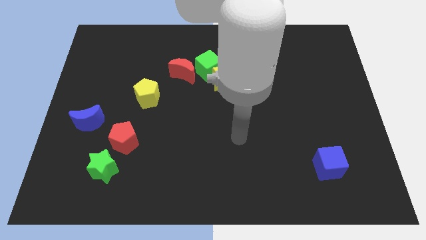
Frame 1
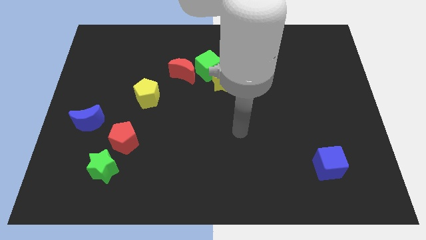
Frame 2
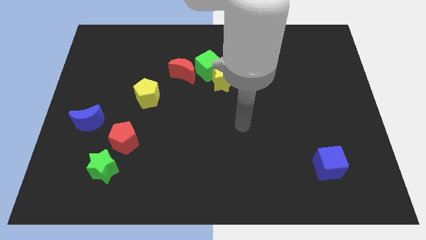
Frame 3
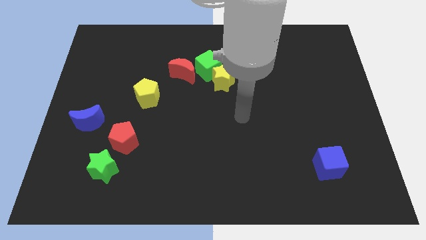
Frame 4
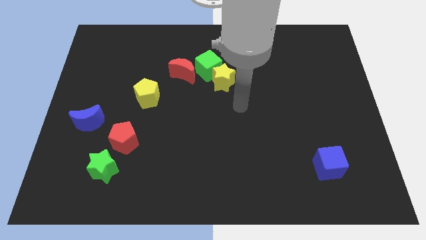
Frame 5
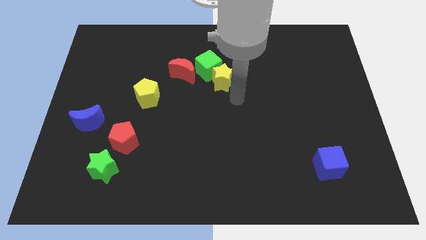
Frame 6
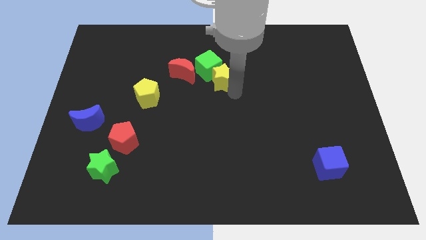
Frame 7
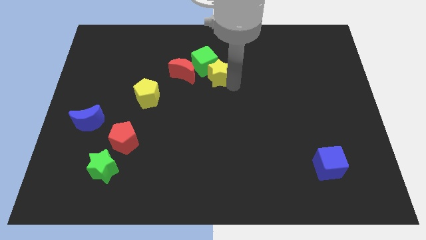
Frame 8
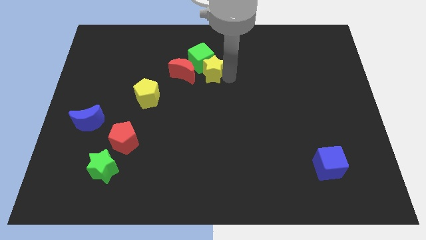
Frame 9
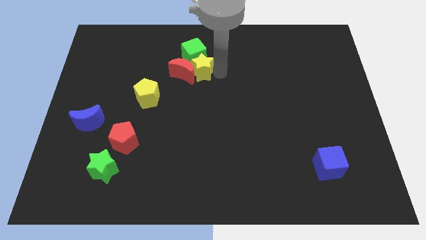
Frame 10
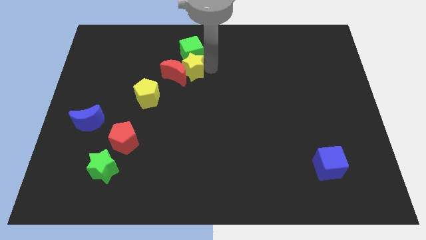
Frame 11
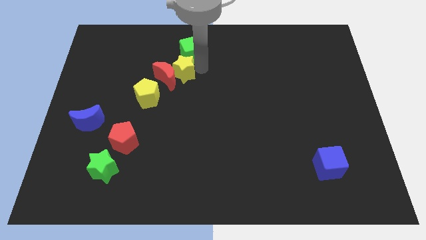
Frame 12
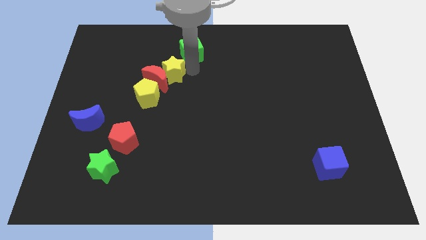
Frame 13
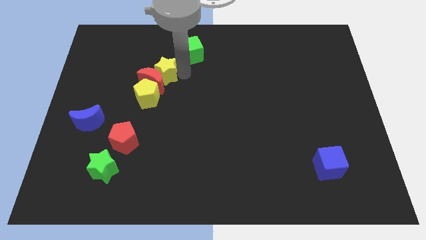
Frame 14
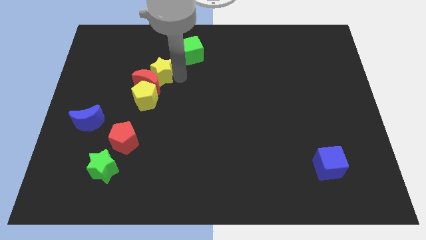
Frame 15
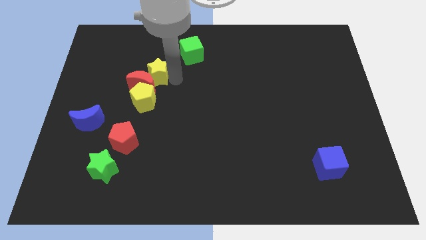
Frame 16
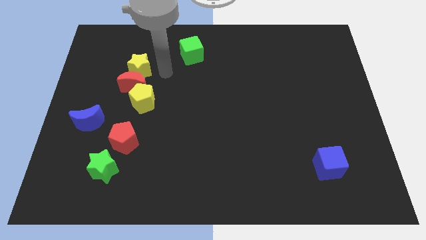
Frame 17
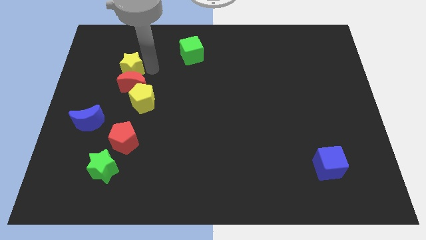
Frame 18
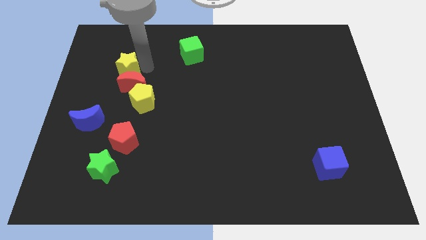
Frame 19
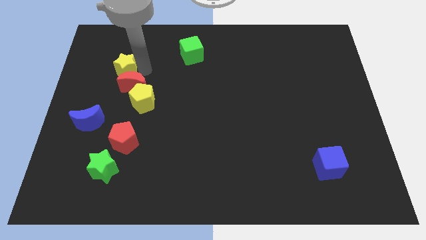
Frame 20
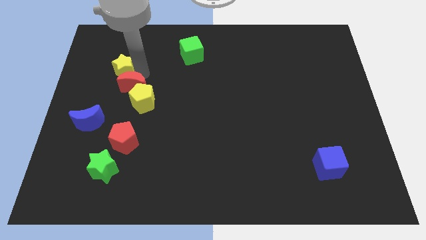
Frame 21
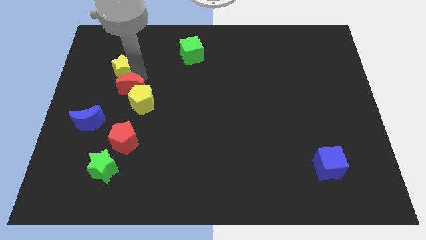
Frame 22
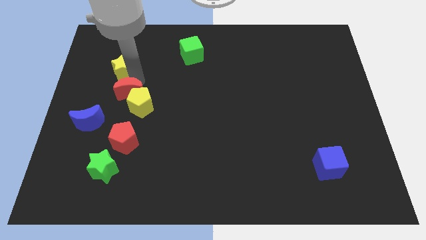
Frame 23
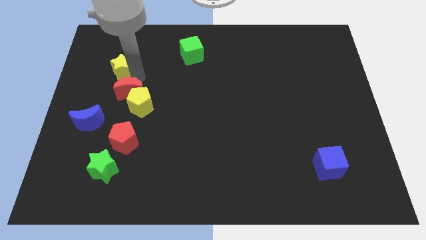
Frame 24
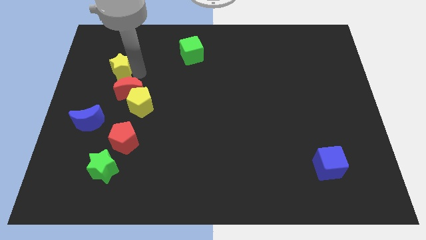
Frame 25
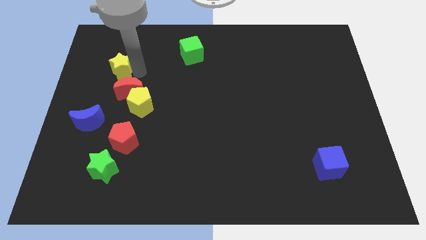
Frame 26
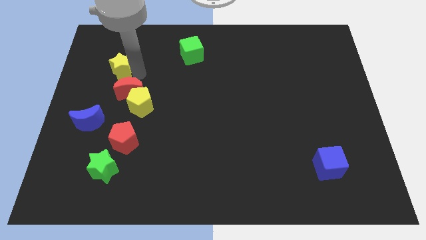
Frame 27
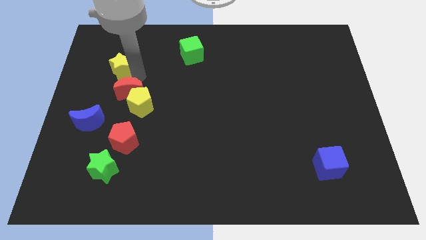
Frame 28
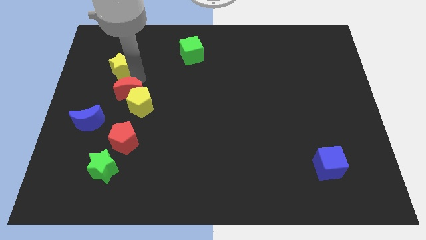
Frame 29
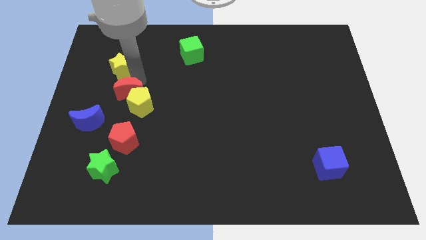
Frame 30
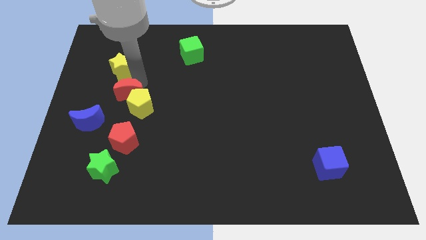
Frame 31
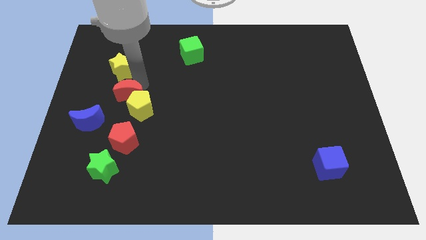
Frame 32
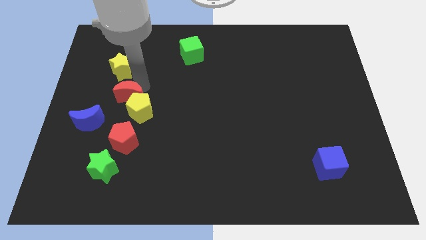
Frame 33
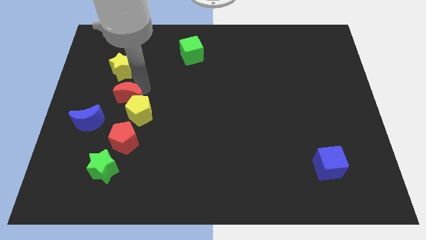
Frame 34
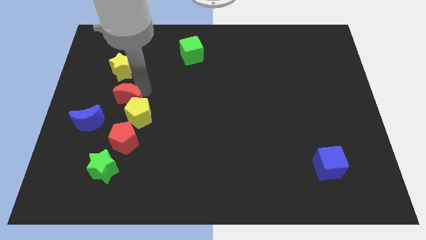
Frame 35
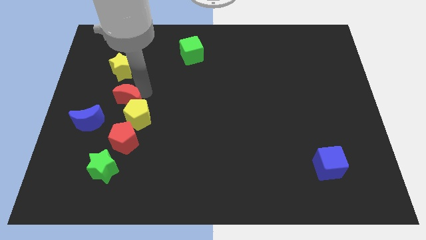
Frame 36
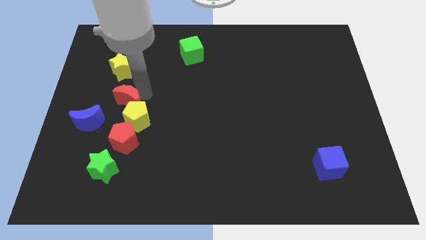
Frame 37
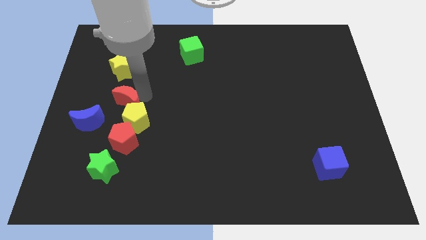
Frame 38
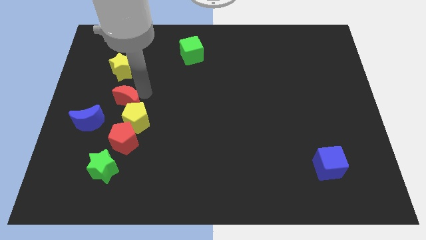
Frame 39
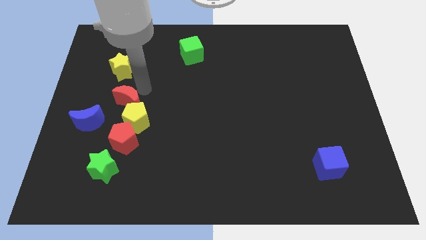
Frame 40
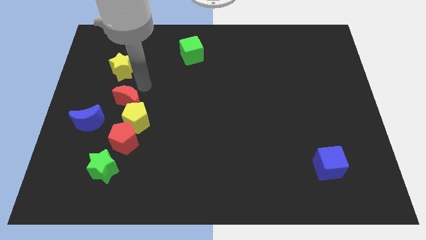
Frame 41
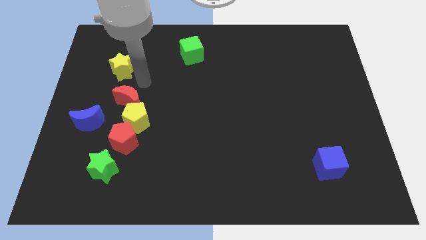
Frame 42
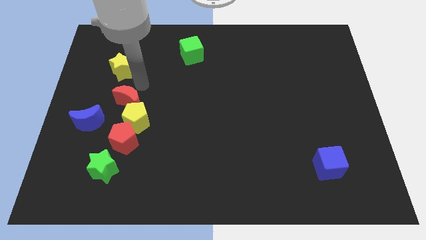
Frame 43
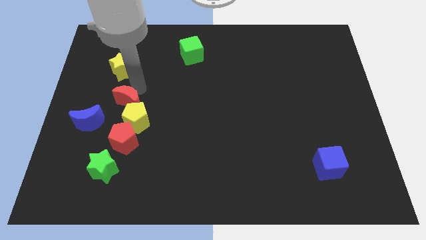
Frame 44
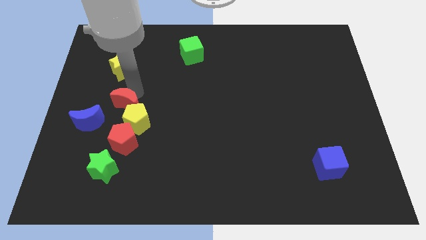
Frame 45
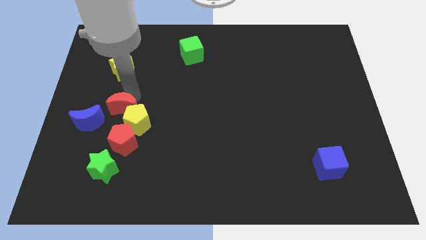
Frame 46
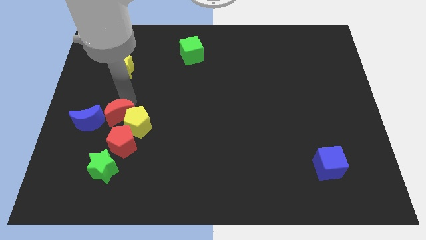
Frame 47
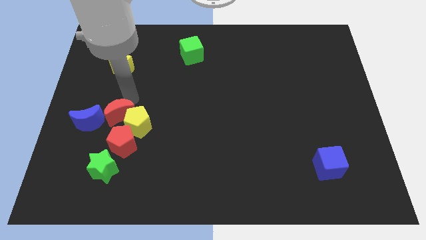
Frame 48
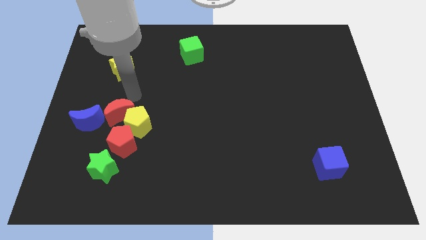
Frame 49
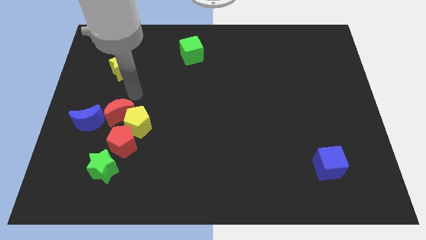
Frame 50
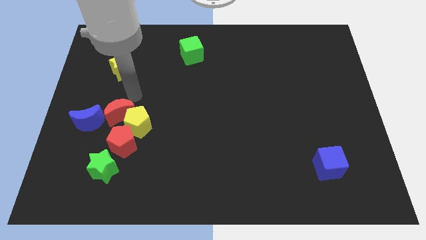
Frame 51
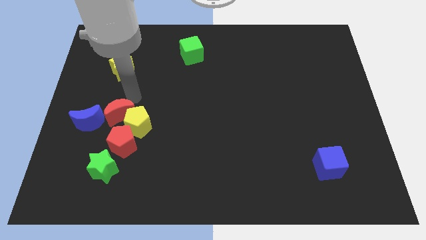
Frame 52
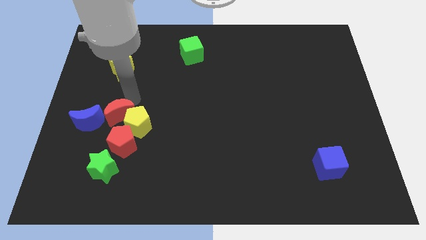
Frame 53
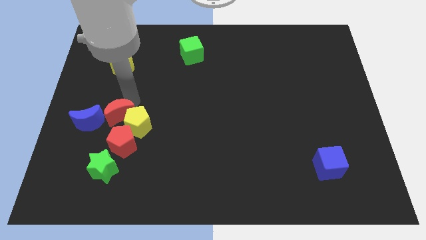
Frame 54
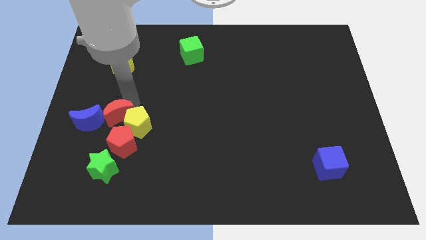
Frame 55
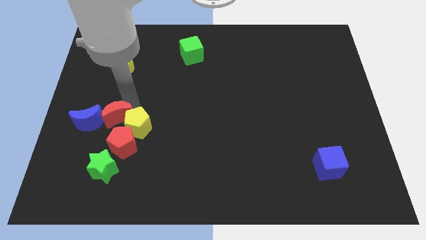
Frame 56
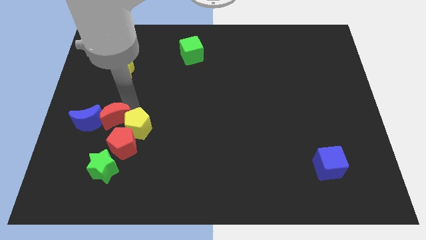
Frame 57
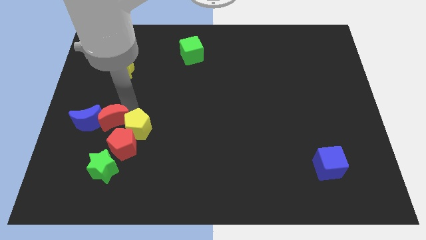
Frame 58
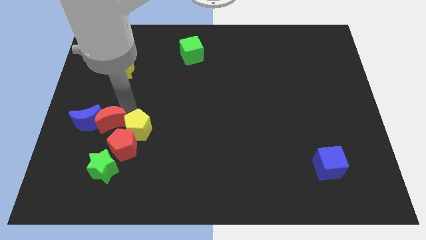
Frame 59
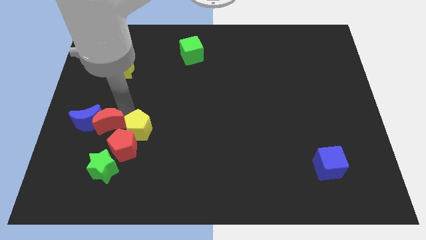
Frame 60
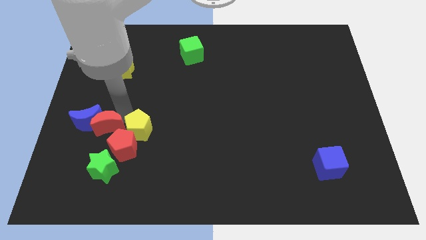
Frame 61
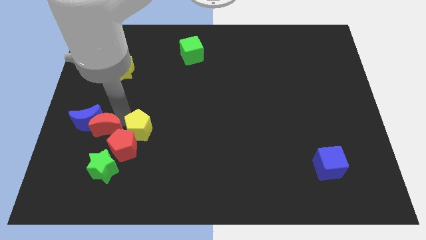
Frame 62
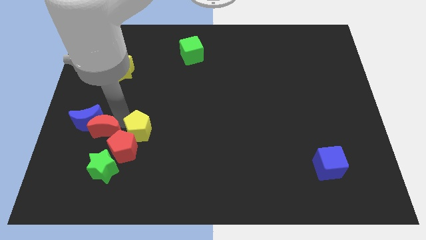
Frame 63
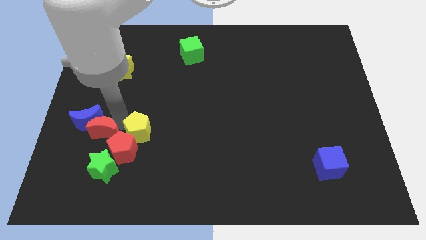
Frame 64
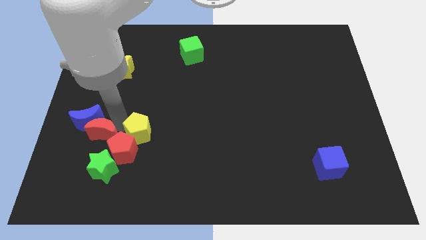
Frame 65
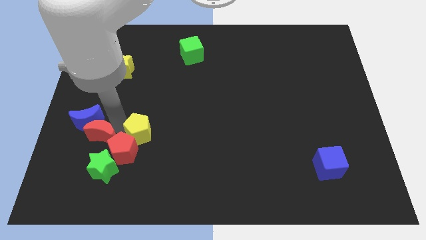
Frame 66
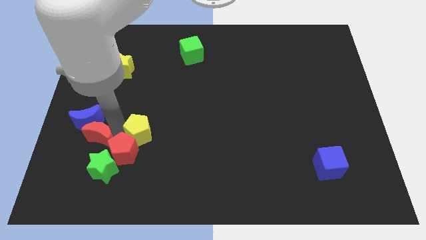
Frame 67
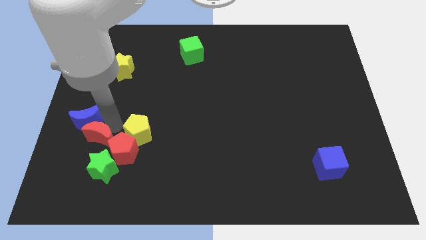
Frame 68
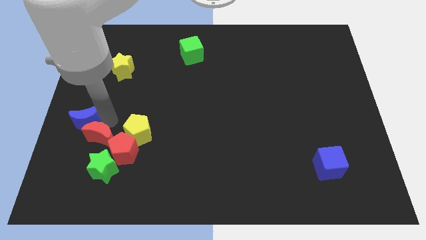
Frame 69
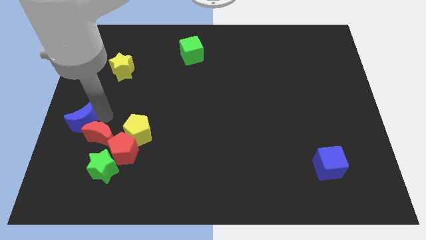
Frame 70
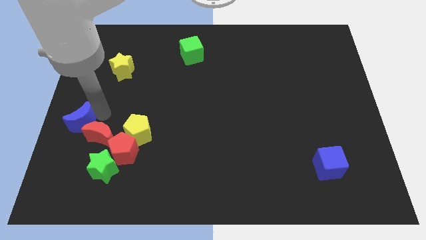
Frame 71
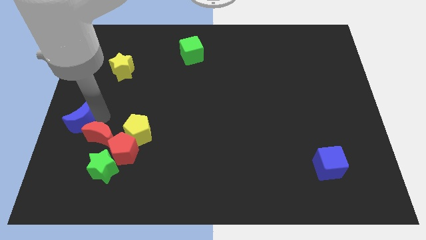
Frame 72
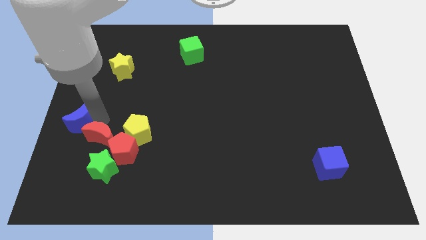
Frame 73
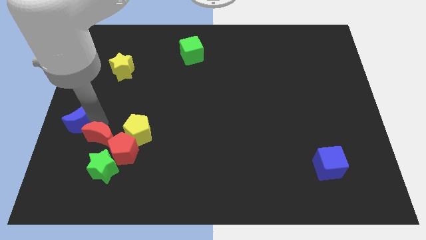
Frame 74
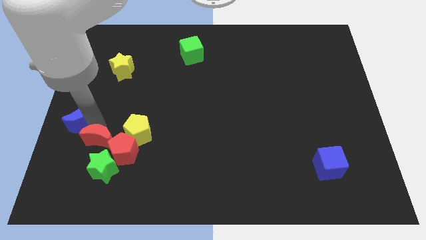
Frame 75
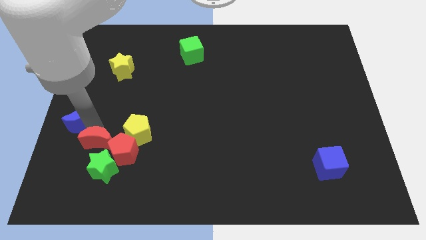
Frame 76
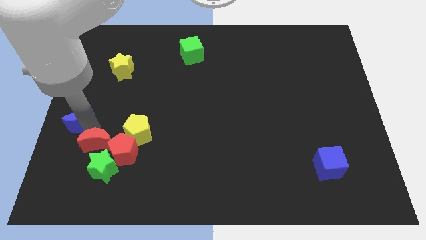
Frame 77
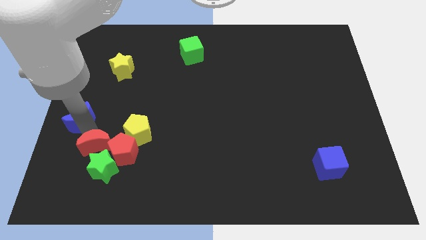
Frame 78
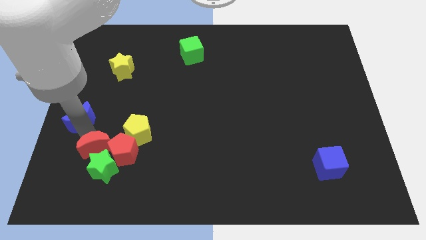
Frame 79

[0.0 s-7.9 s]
push the red moon to the green star
